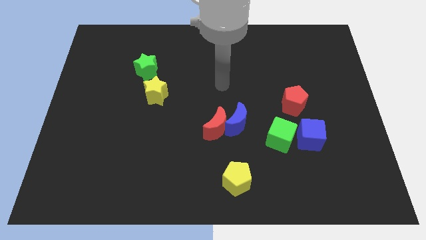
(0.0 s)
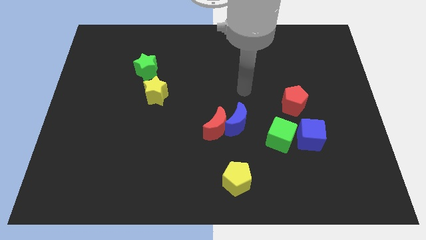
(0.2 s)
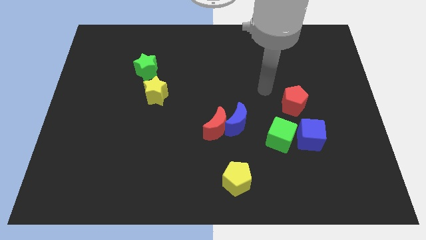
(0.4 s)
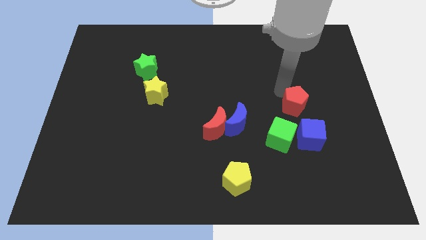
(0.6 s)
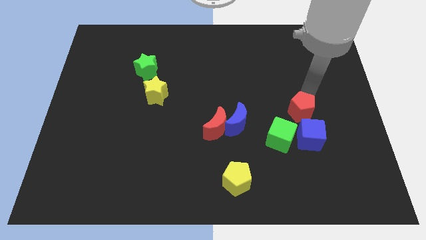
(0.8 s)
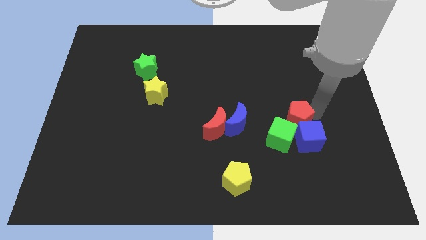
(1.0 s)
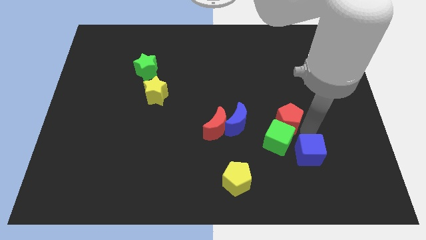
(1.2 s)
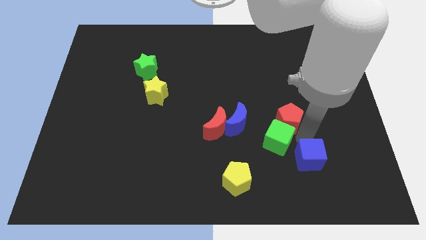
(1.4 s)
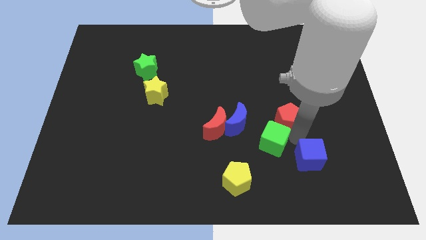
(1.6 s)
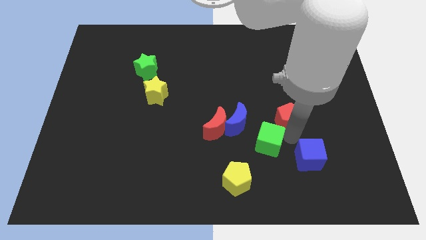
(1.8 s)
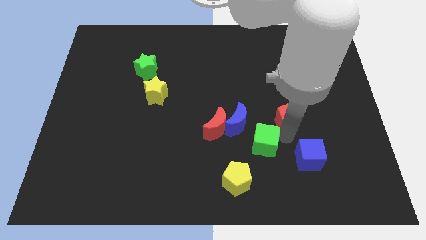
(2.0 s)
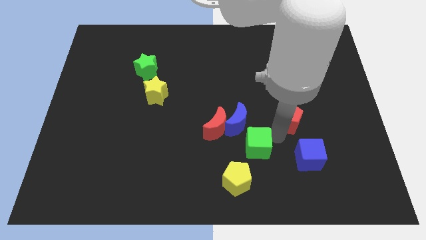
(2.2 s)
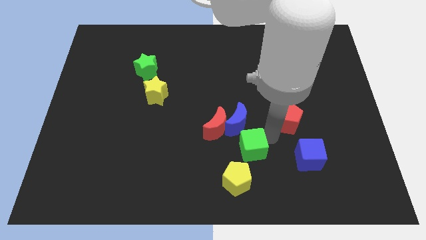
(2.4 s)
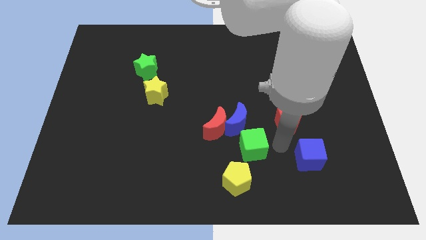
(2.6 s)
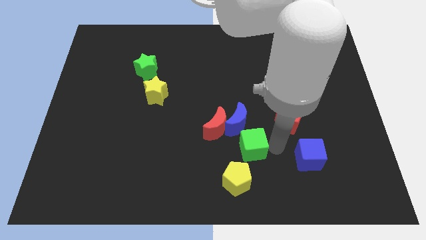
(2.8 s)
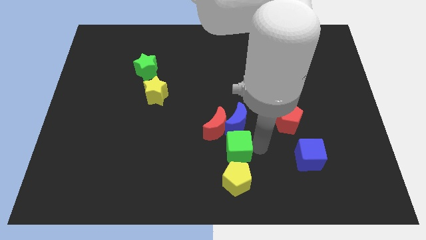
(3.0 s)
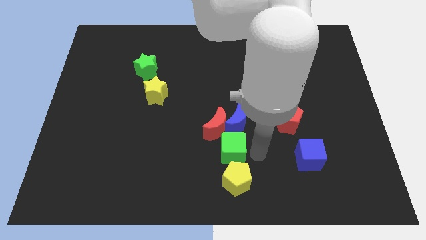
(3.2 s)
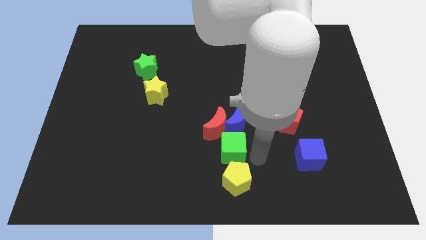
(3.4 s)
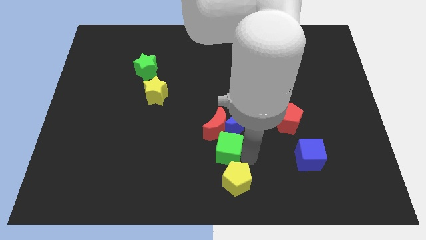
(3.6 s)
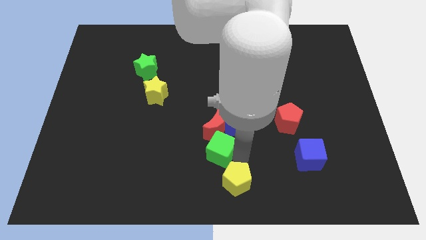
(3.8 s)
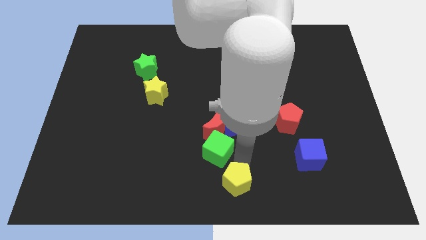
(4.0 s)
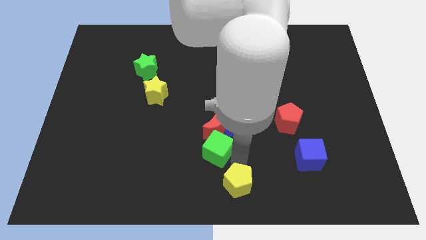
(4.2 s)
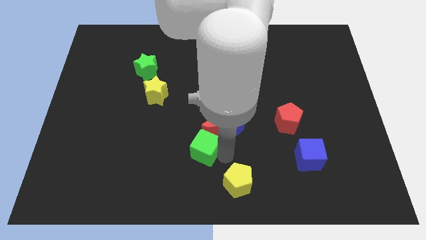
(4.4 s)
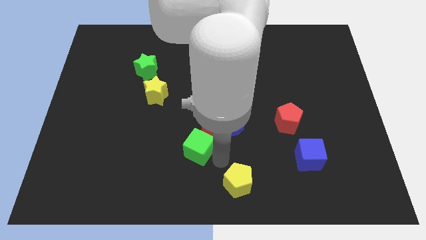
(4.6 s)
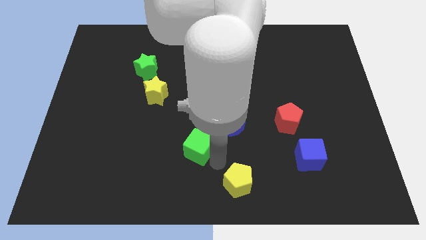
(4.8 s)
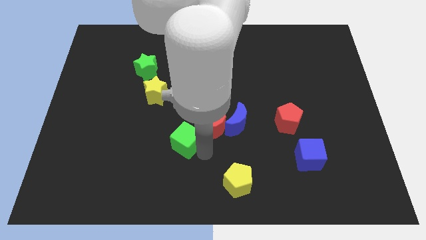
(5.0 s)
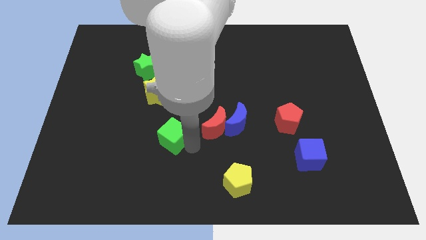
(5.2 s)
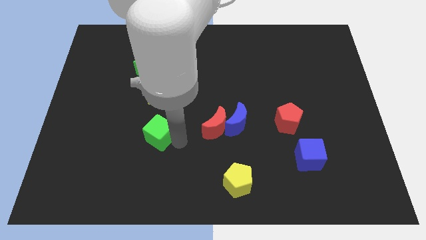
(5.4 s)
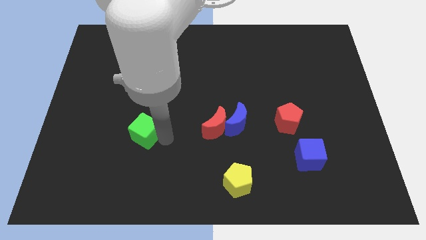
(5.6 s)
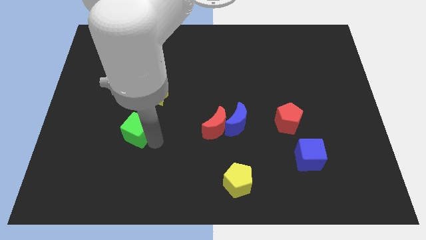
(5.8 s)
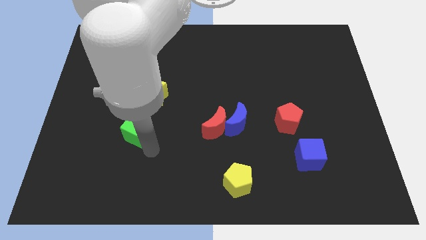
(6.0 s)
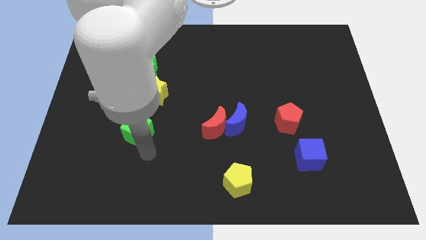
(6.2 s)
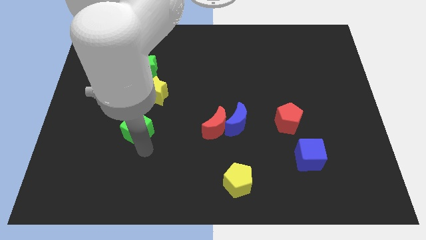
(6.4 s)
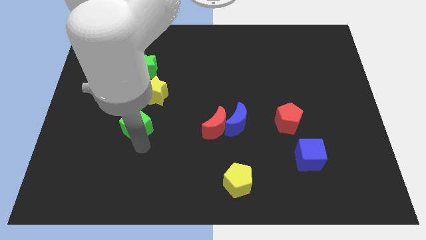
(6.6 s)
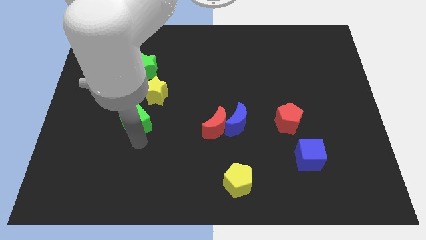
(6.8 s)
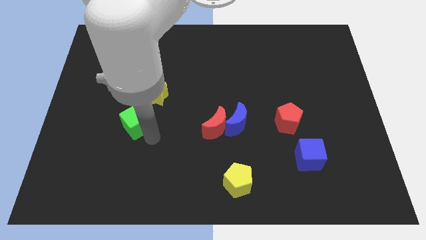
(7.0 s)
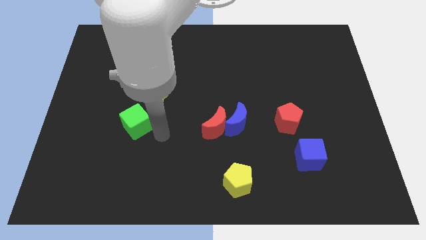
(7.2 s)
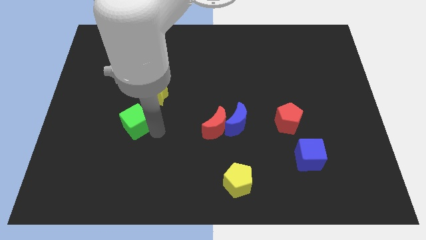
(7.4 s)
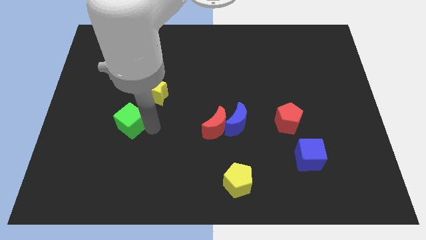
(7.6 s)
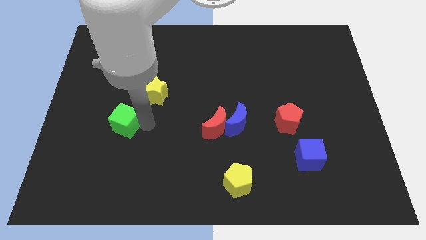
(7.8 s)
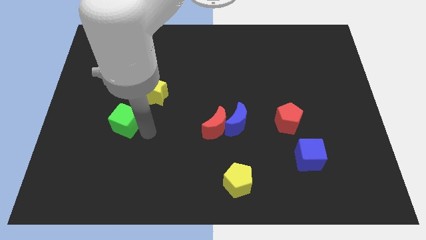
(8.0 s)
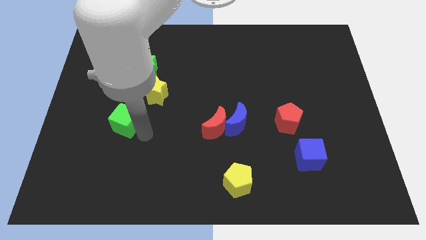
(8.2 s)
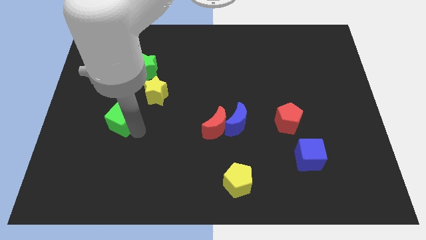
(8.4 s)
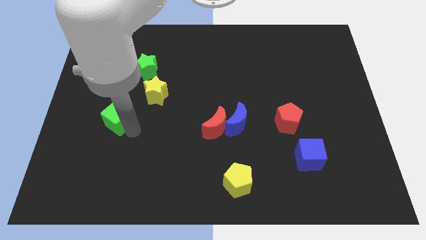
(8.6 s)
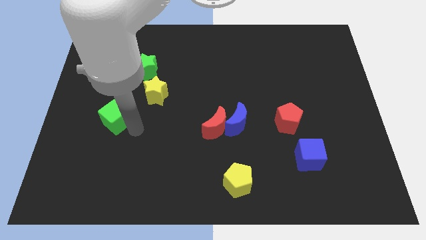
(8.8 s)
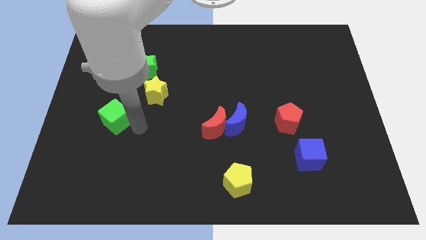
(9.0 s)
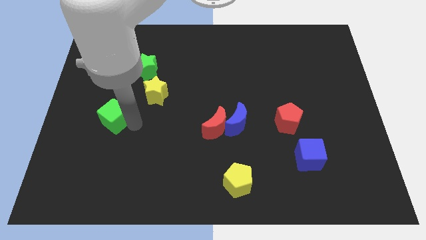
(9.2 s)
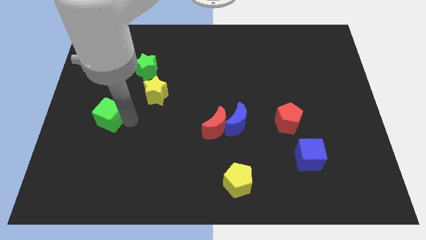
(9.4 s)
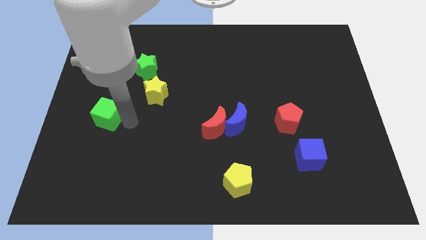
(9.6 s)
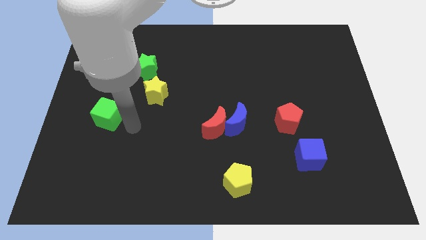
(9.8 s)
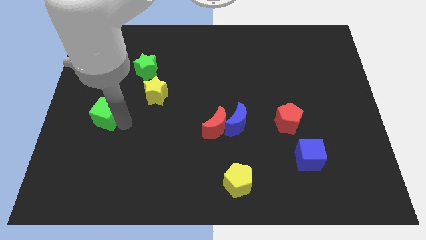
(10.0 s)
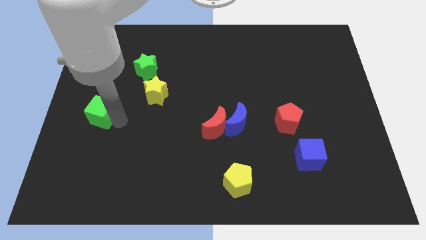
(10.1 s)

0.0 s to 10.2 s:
slide the green cube to the left side of the board

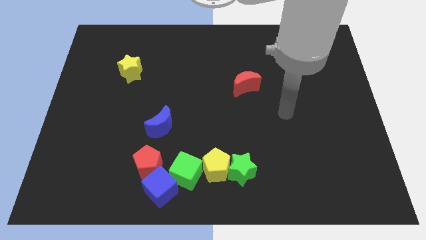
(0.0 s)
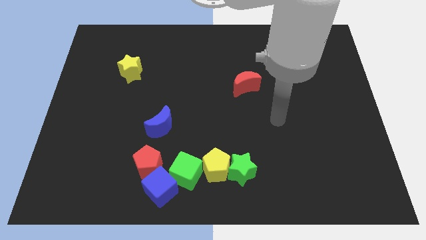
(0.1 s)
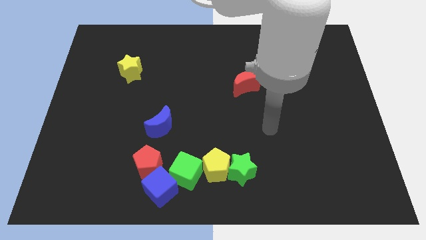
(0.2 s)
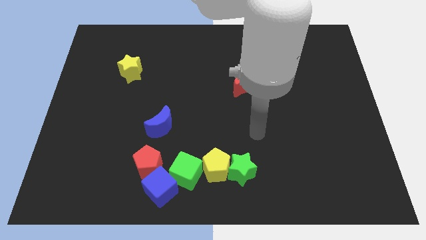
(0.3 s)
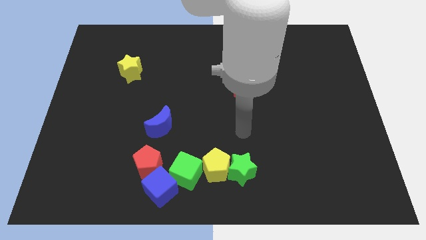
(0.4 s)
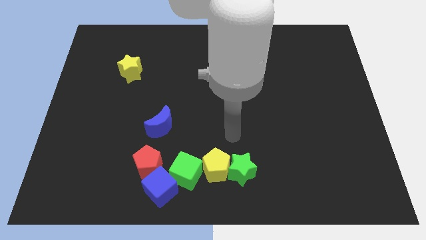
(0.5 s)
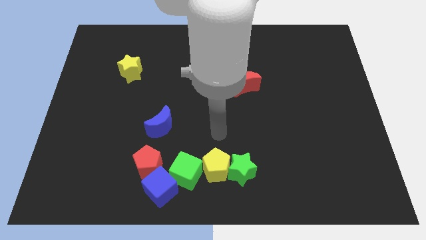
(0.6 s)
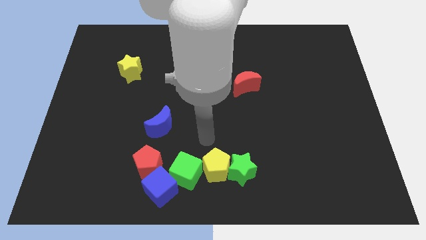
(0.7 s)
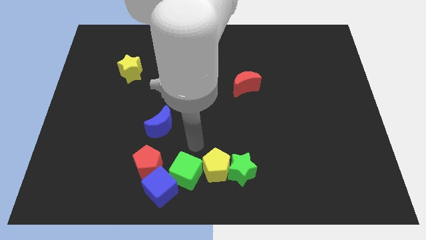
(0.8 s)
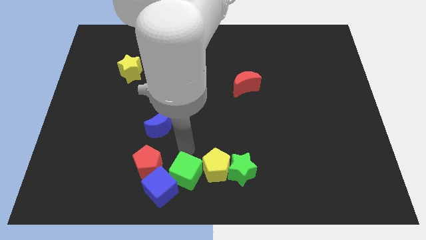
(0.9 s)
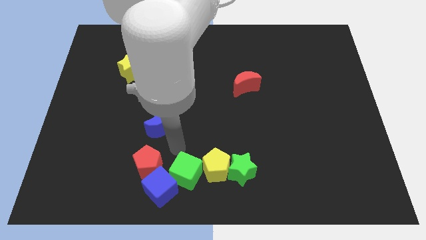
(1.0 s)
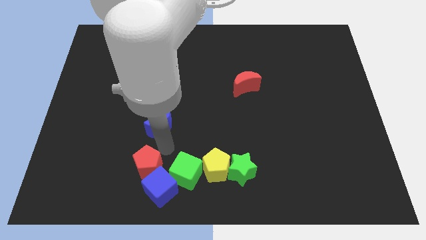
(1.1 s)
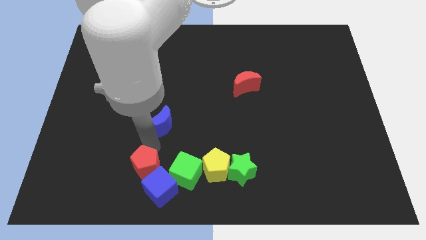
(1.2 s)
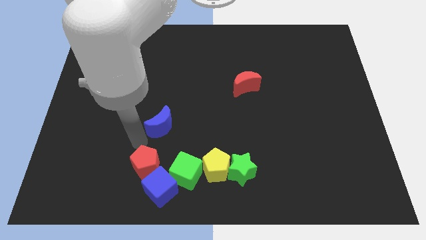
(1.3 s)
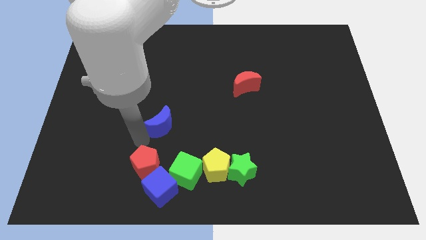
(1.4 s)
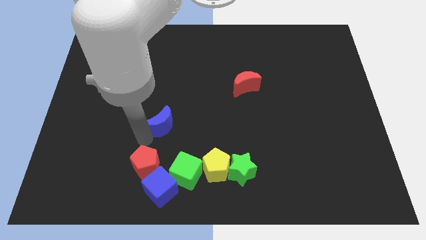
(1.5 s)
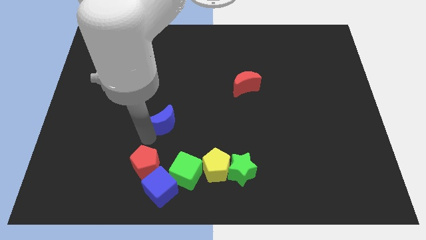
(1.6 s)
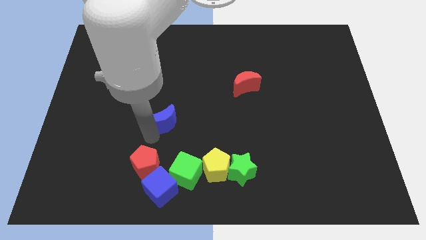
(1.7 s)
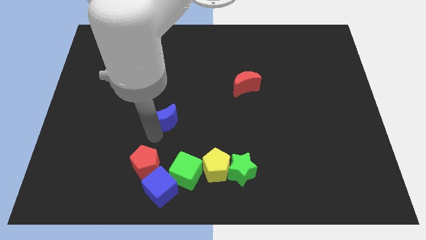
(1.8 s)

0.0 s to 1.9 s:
move the blue moon to the middle
